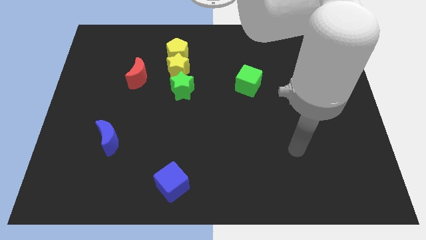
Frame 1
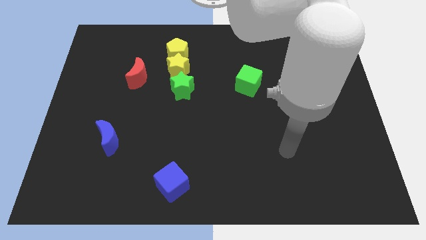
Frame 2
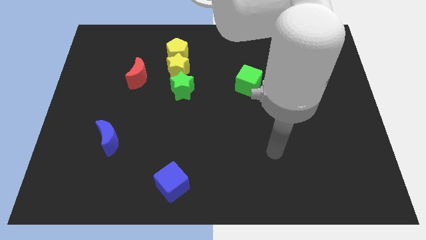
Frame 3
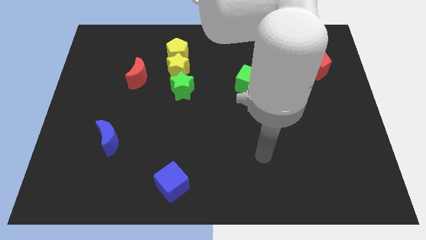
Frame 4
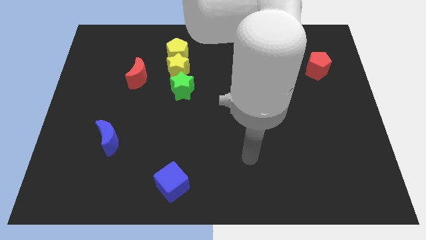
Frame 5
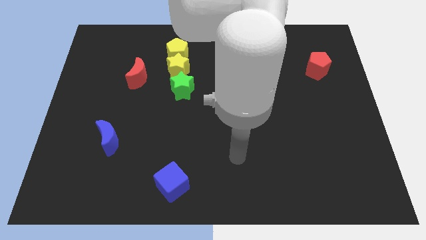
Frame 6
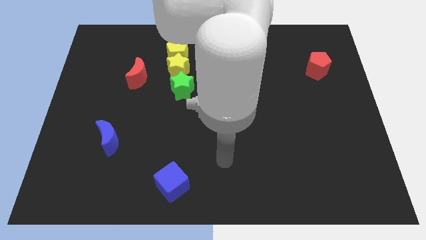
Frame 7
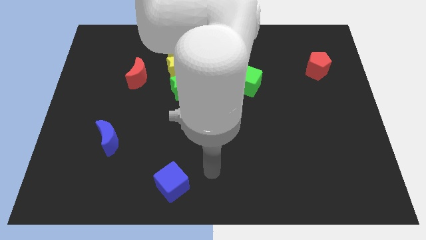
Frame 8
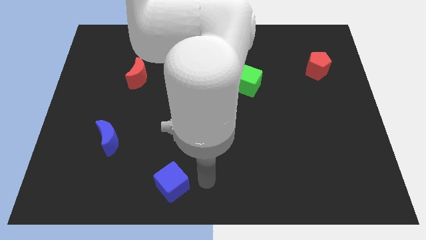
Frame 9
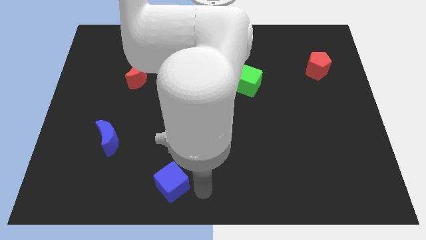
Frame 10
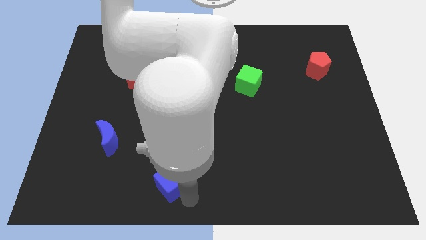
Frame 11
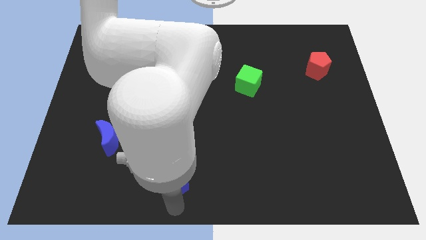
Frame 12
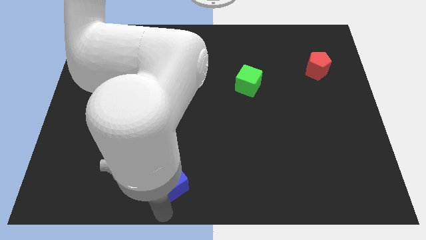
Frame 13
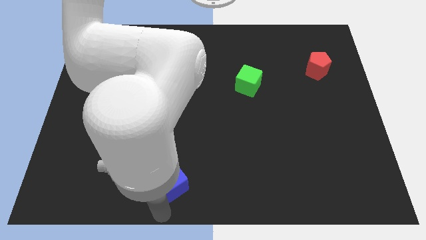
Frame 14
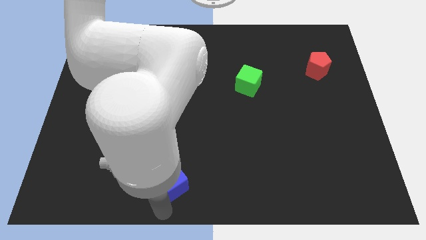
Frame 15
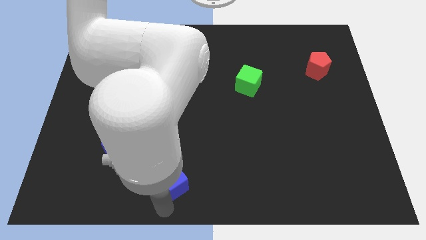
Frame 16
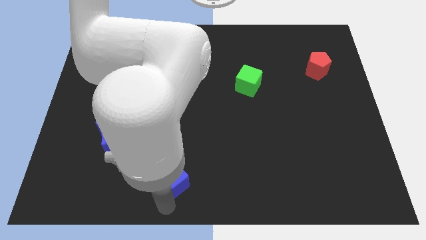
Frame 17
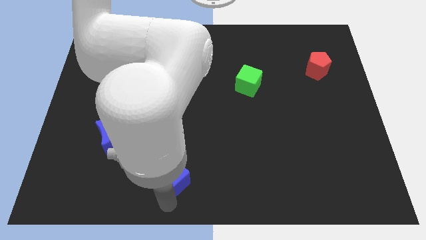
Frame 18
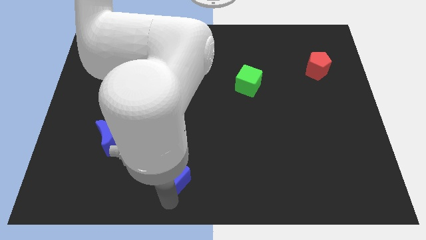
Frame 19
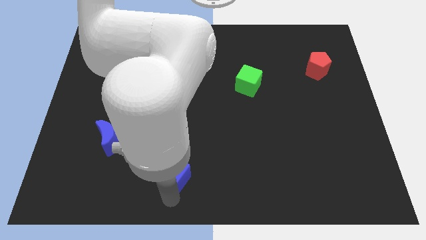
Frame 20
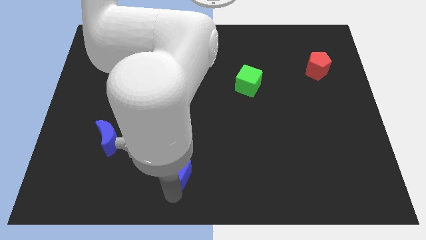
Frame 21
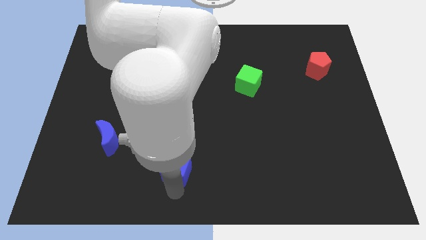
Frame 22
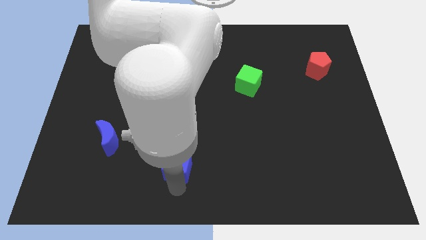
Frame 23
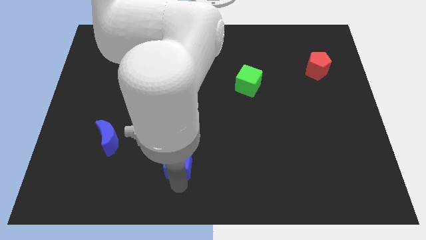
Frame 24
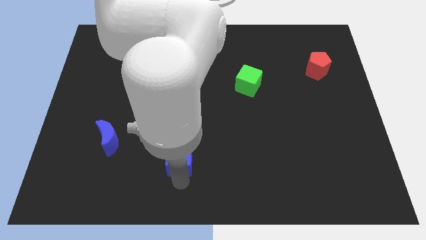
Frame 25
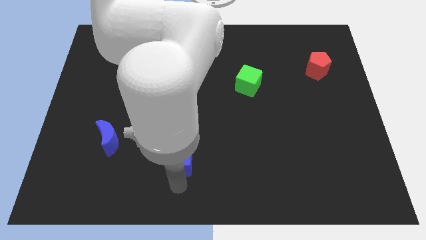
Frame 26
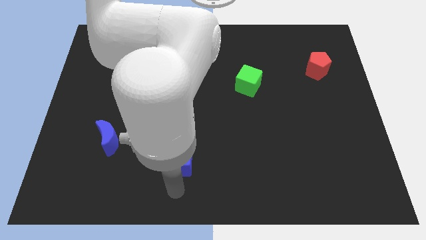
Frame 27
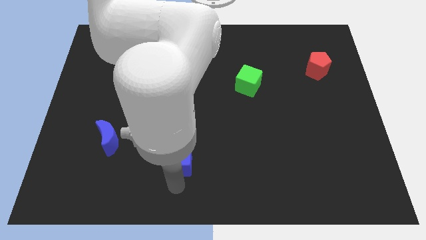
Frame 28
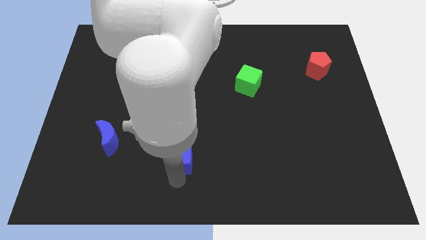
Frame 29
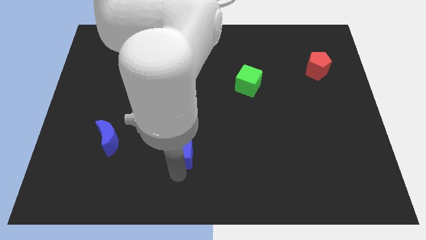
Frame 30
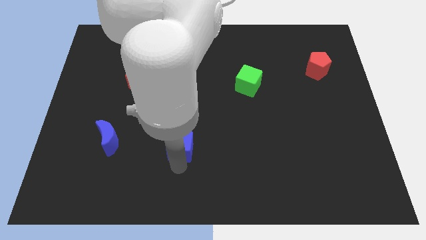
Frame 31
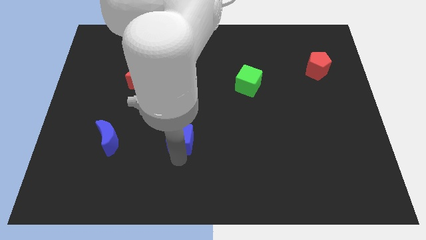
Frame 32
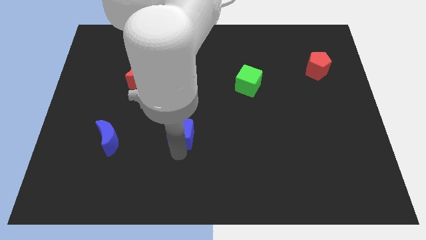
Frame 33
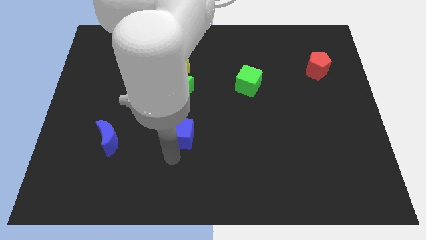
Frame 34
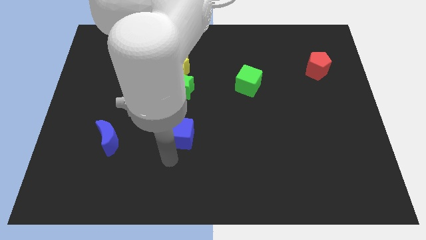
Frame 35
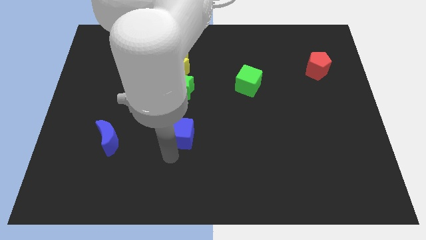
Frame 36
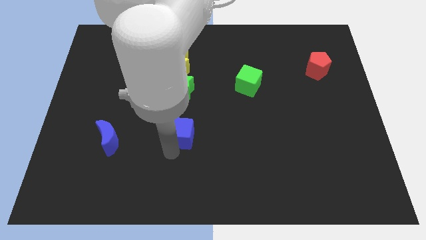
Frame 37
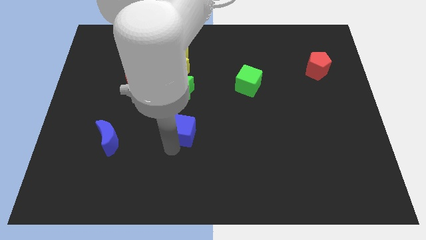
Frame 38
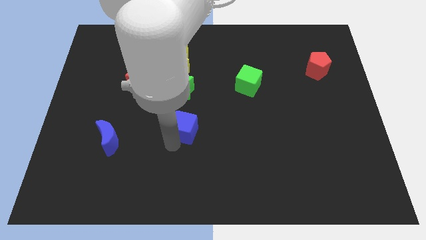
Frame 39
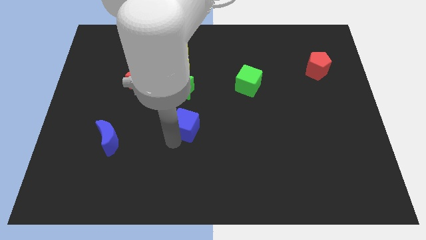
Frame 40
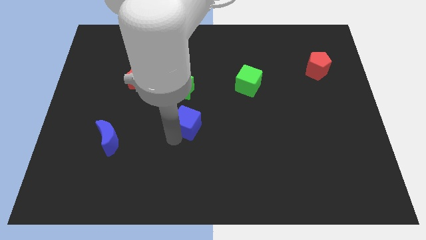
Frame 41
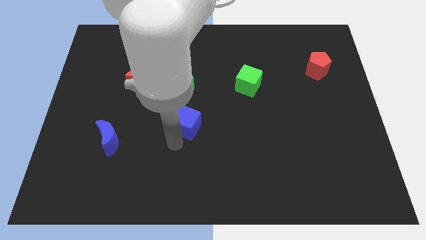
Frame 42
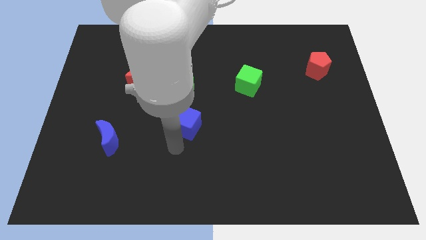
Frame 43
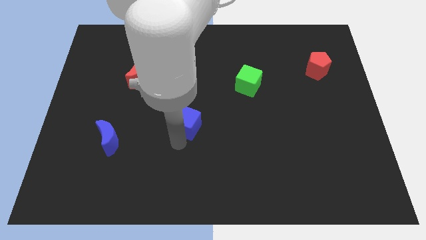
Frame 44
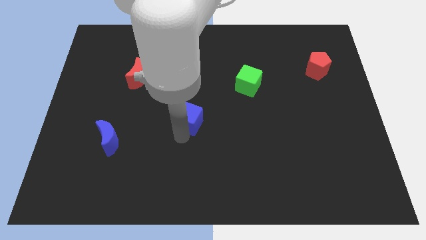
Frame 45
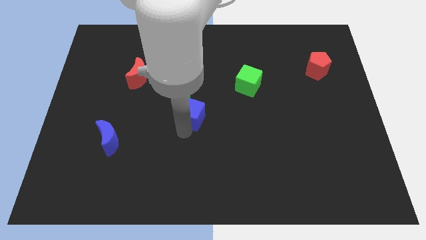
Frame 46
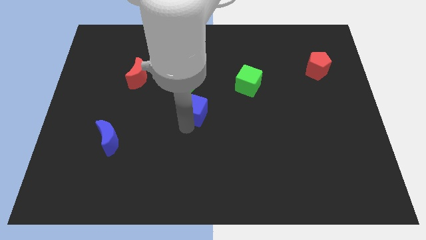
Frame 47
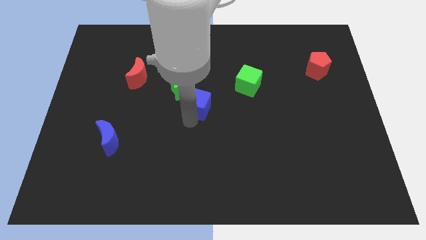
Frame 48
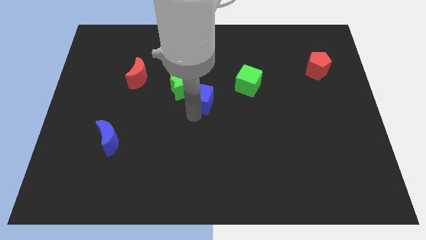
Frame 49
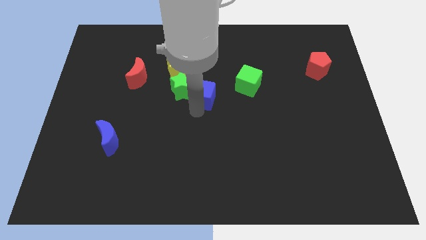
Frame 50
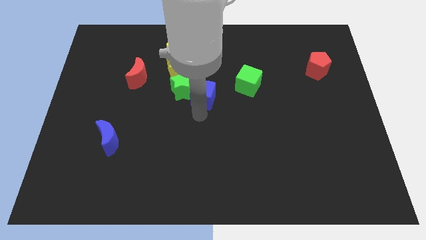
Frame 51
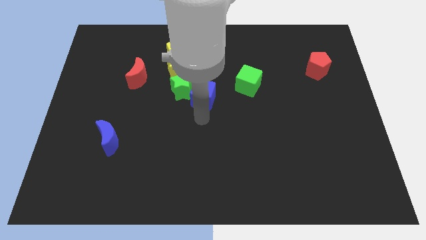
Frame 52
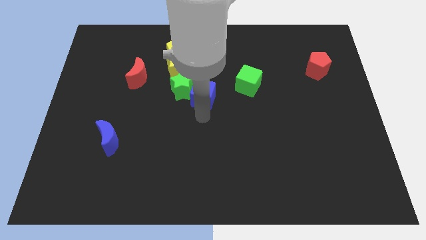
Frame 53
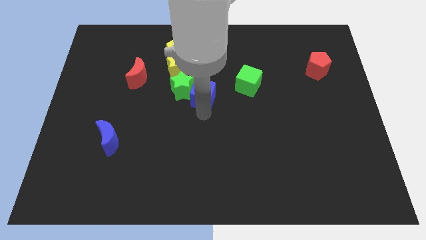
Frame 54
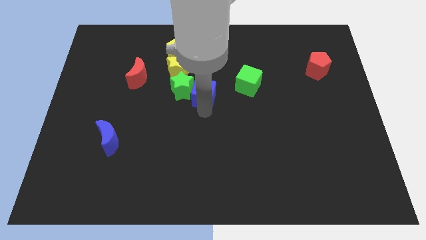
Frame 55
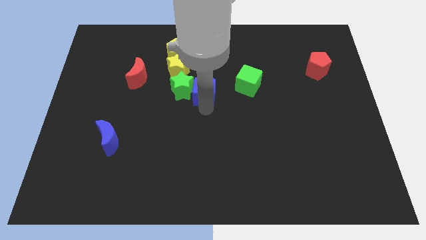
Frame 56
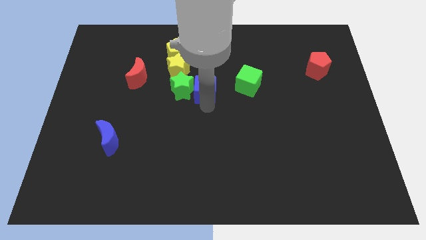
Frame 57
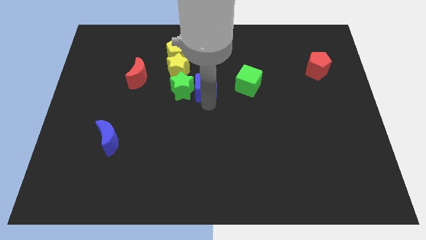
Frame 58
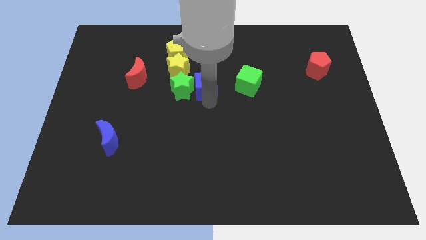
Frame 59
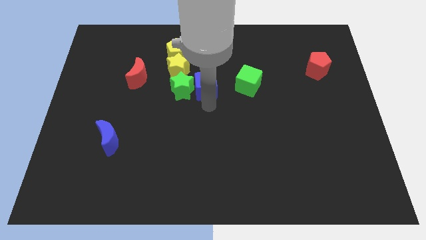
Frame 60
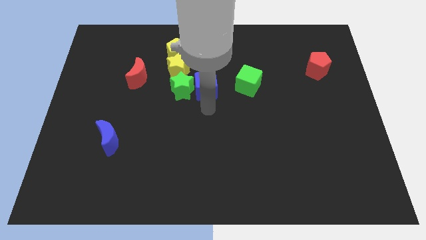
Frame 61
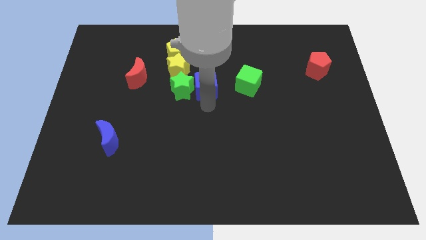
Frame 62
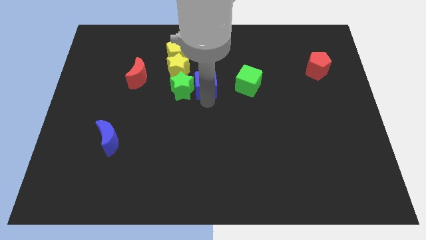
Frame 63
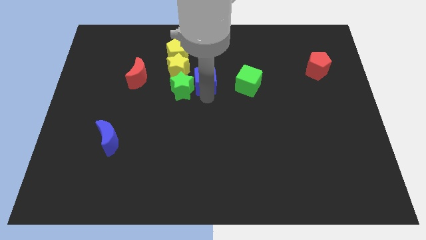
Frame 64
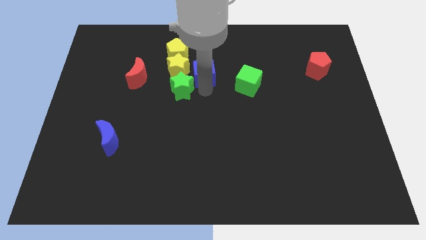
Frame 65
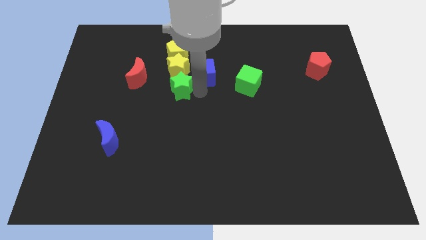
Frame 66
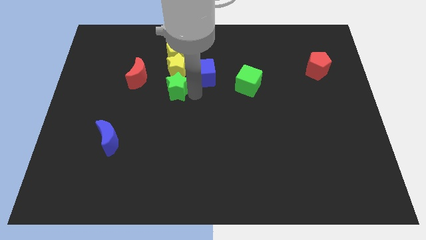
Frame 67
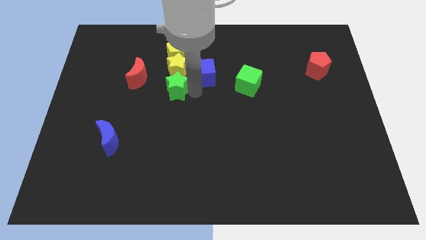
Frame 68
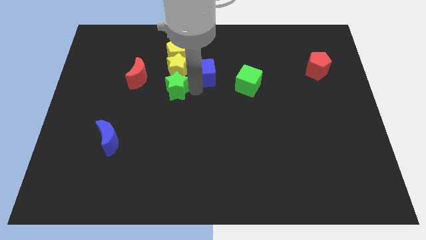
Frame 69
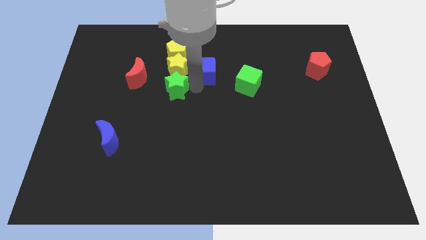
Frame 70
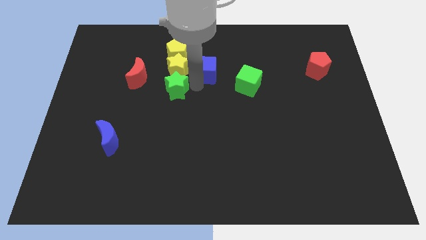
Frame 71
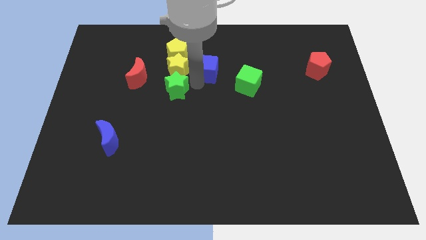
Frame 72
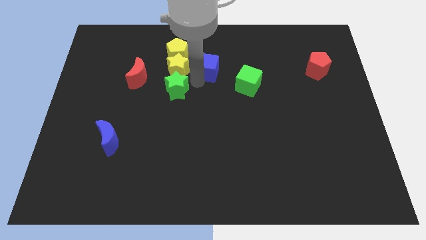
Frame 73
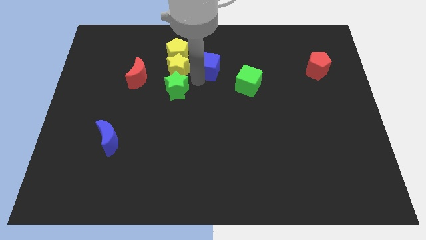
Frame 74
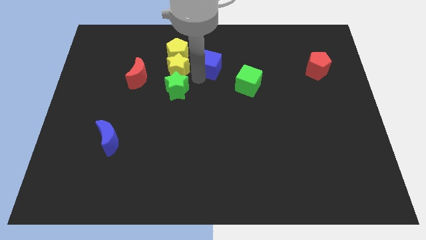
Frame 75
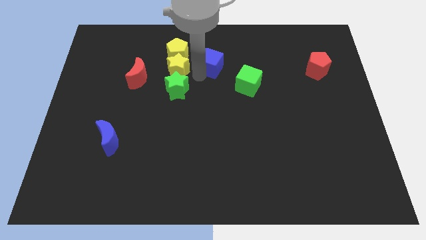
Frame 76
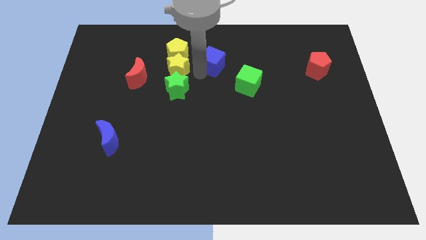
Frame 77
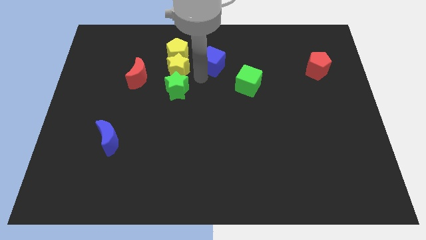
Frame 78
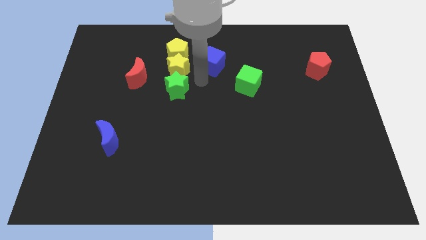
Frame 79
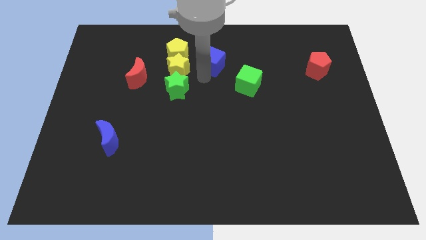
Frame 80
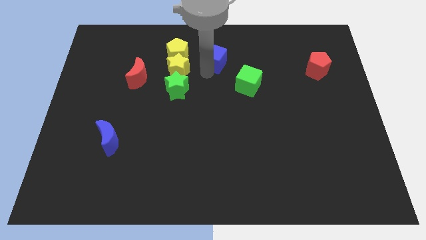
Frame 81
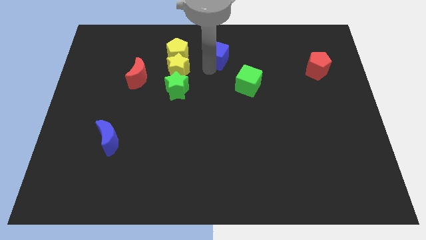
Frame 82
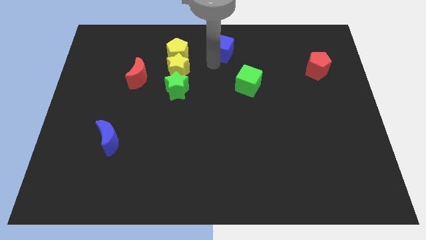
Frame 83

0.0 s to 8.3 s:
put the blue cube to the top
